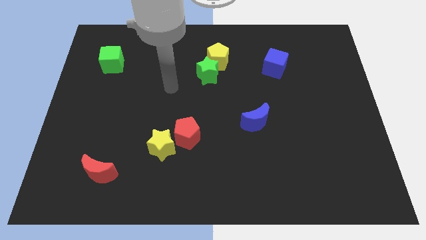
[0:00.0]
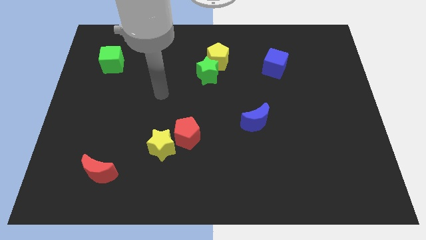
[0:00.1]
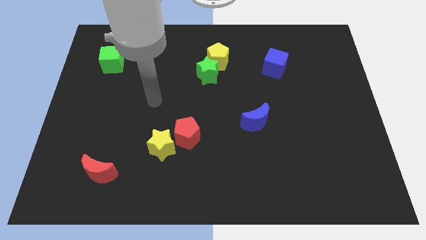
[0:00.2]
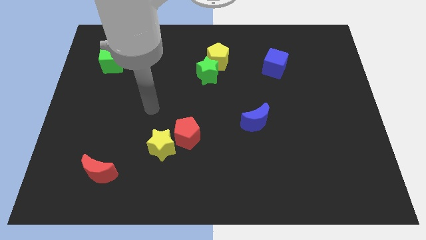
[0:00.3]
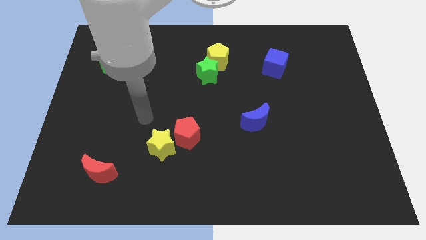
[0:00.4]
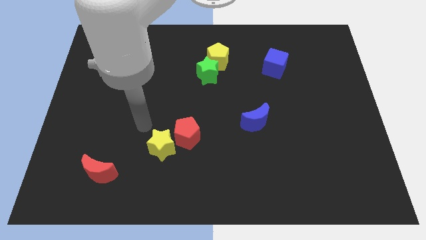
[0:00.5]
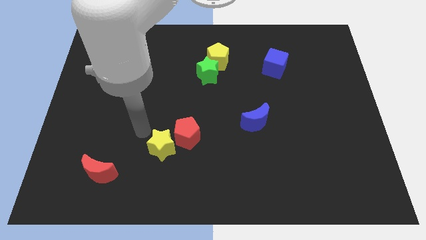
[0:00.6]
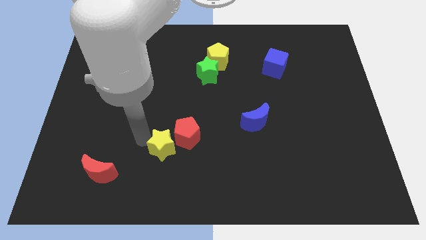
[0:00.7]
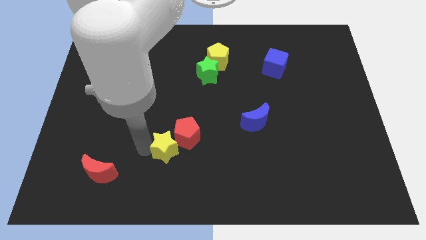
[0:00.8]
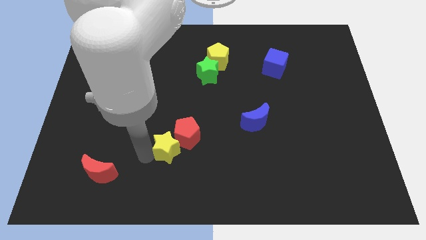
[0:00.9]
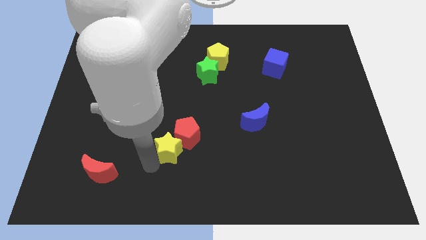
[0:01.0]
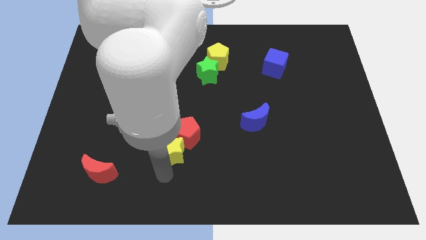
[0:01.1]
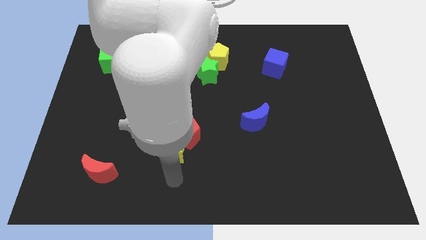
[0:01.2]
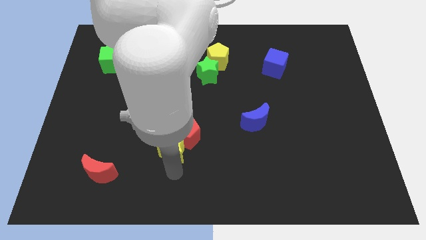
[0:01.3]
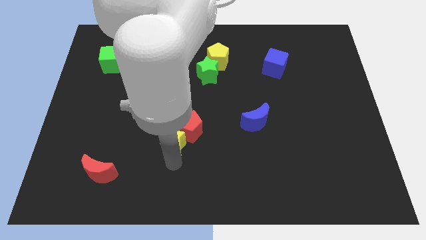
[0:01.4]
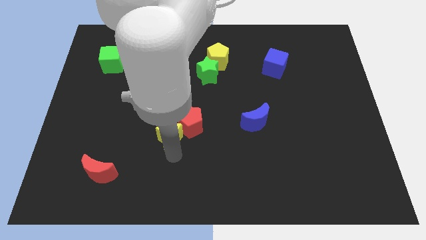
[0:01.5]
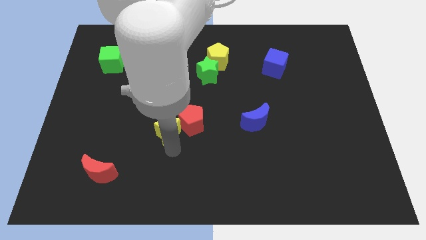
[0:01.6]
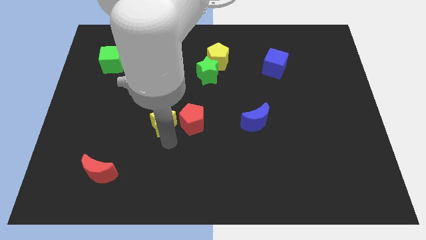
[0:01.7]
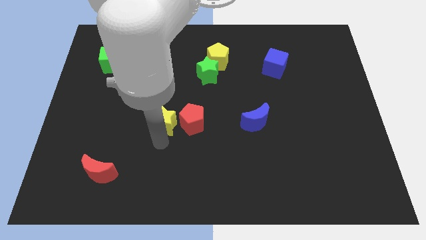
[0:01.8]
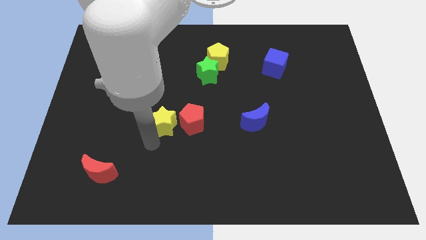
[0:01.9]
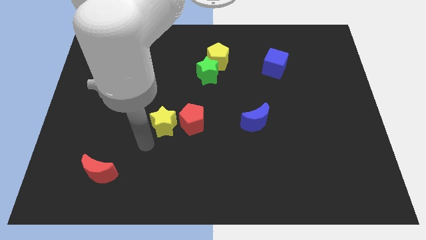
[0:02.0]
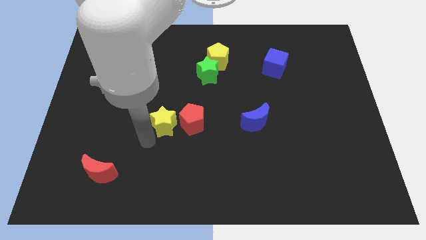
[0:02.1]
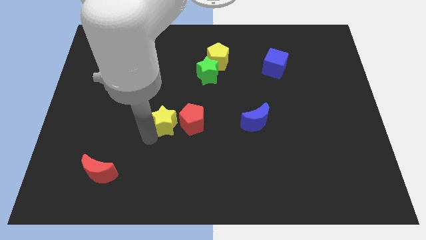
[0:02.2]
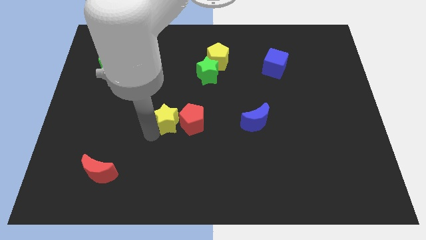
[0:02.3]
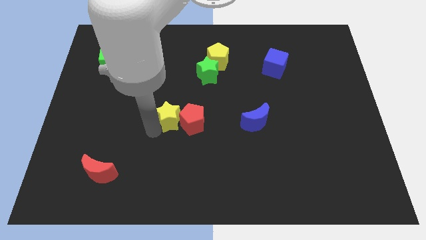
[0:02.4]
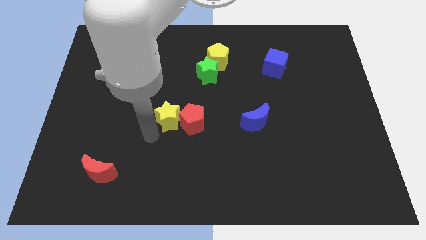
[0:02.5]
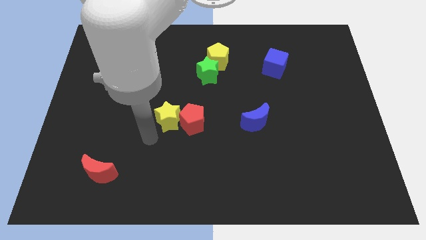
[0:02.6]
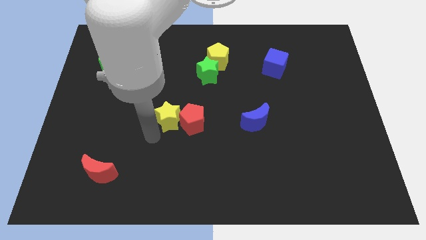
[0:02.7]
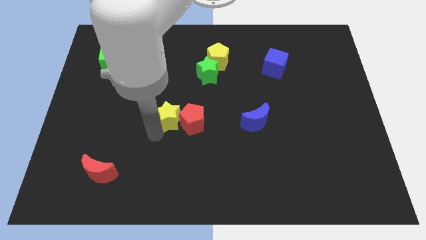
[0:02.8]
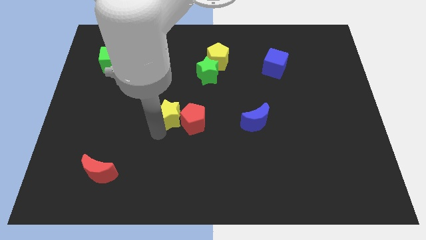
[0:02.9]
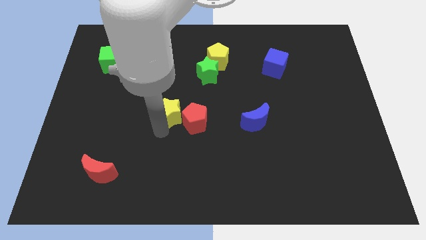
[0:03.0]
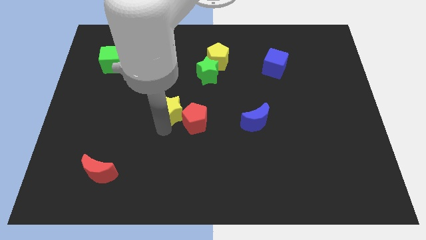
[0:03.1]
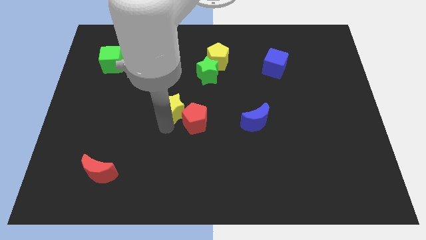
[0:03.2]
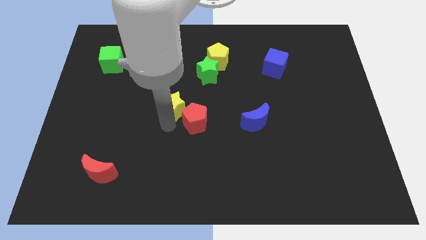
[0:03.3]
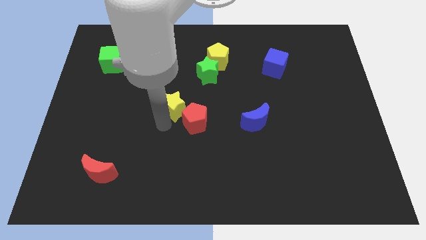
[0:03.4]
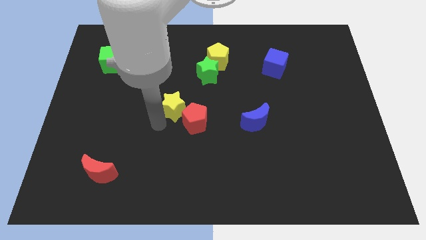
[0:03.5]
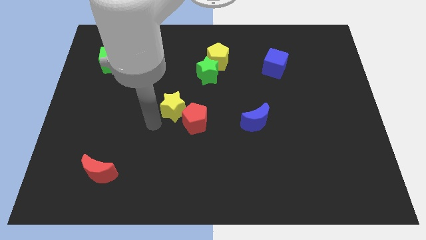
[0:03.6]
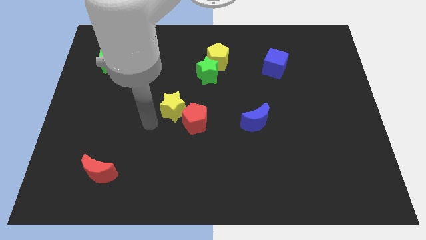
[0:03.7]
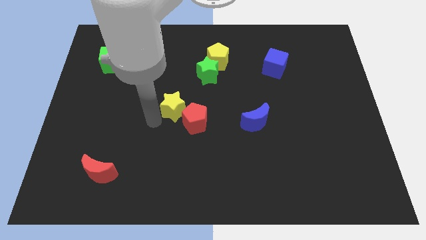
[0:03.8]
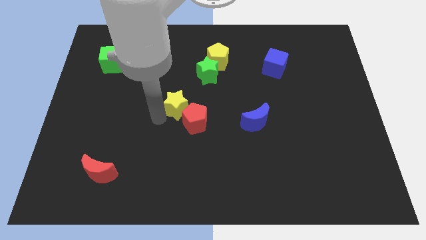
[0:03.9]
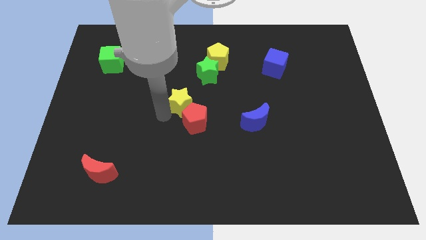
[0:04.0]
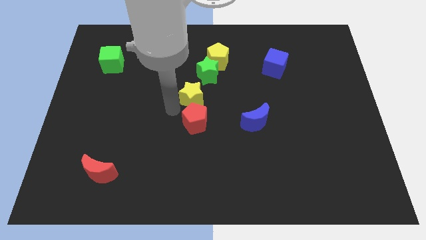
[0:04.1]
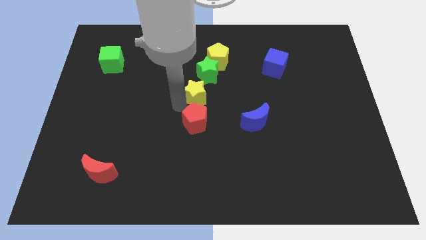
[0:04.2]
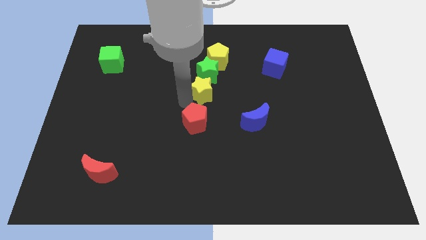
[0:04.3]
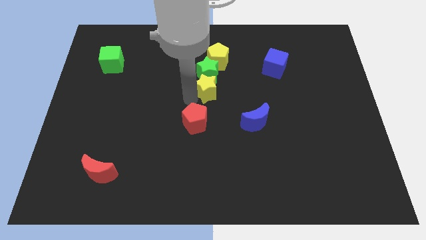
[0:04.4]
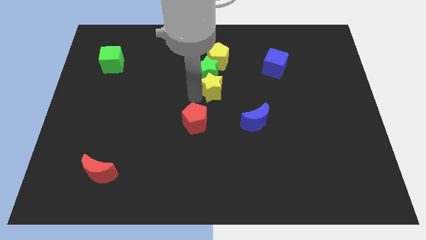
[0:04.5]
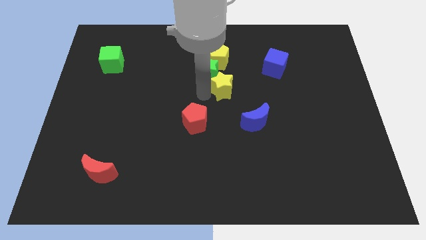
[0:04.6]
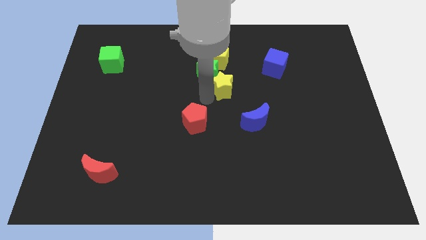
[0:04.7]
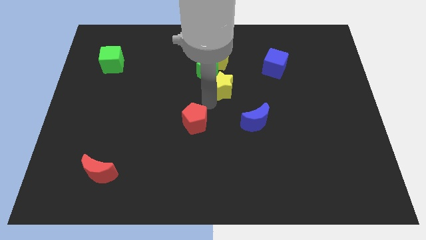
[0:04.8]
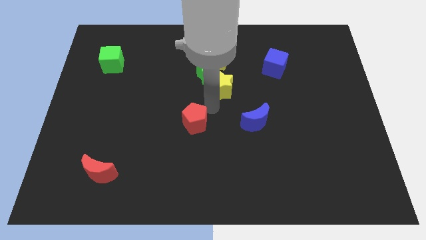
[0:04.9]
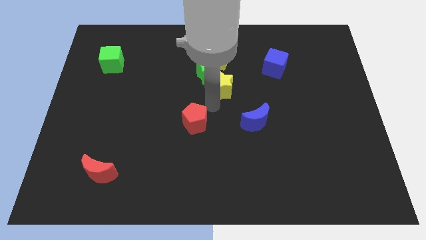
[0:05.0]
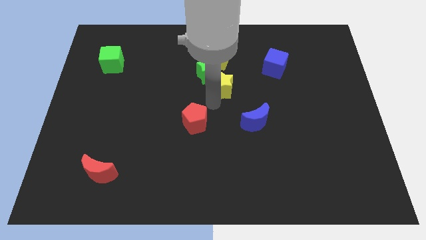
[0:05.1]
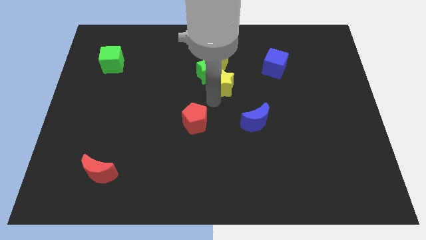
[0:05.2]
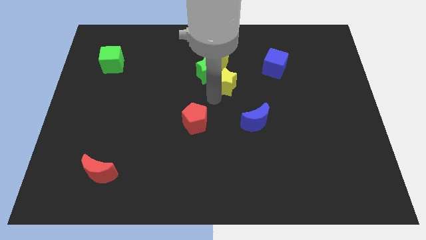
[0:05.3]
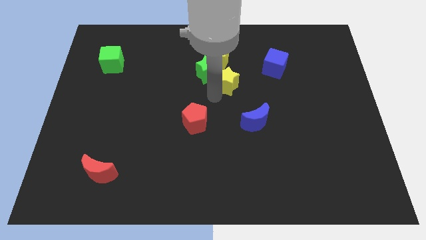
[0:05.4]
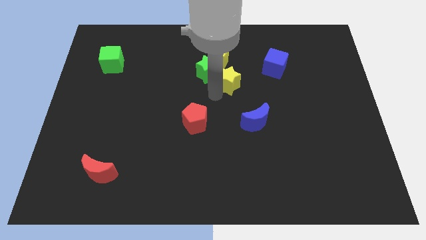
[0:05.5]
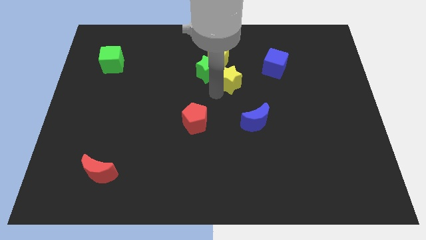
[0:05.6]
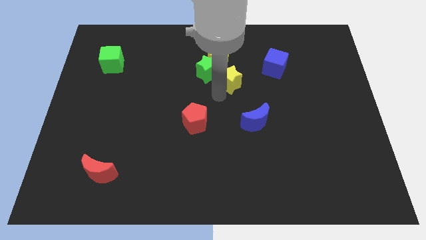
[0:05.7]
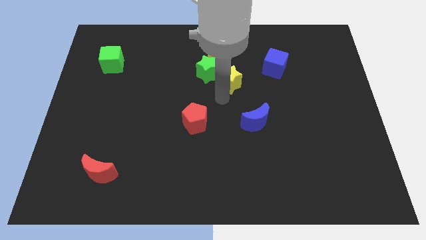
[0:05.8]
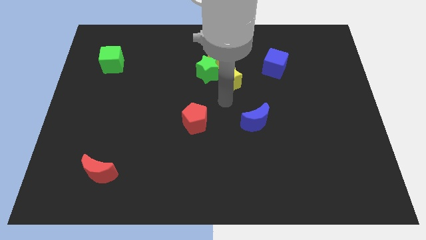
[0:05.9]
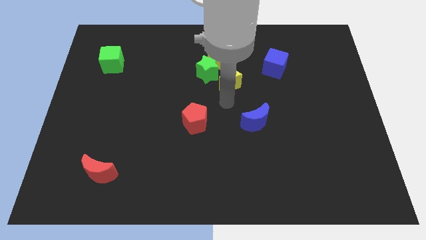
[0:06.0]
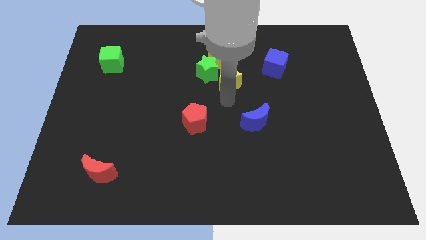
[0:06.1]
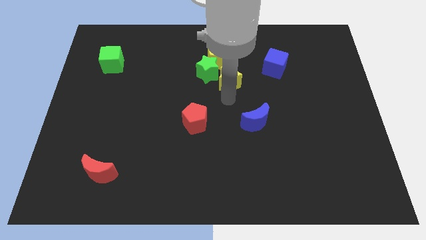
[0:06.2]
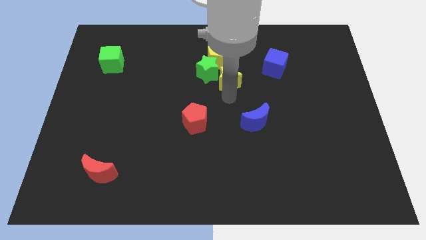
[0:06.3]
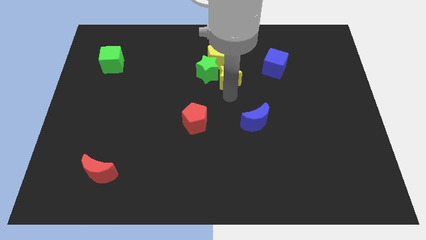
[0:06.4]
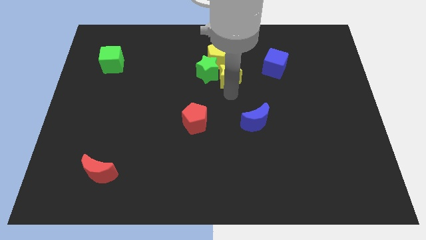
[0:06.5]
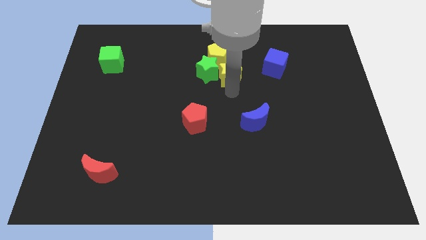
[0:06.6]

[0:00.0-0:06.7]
put the yellow star to the top right side of the green star

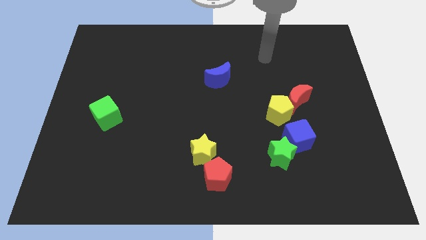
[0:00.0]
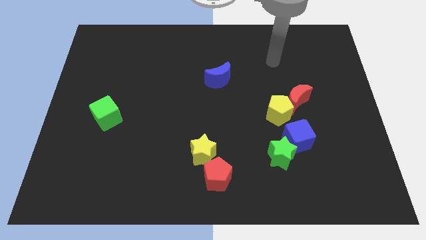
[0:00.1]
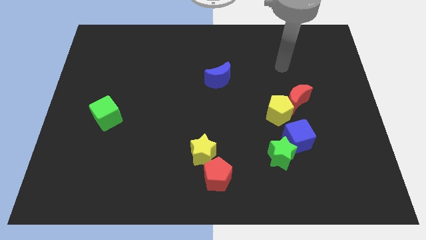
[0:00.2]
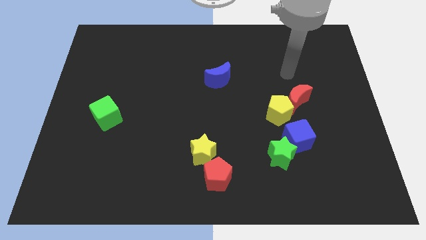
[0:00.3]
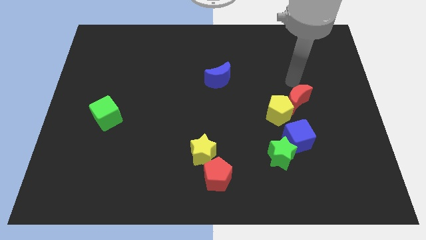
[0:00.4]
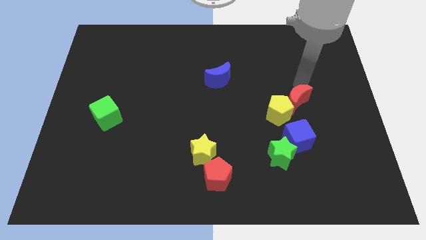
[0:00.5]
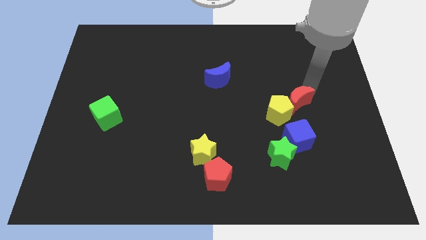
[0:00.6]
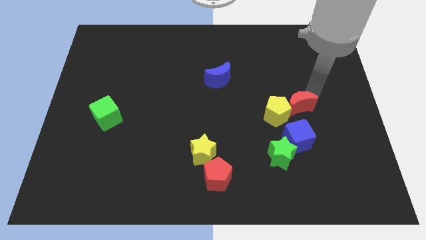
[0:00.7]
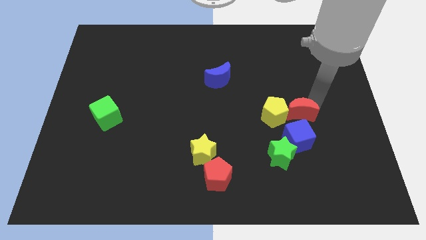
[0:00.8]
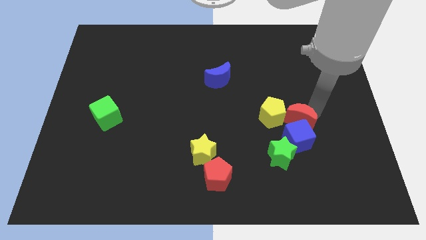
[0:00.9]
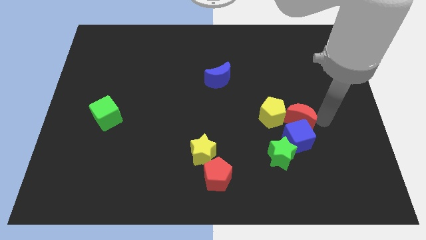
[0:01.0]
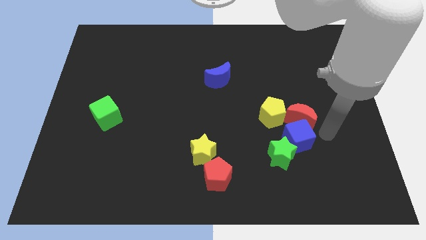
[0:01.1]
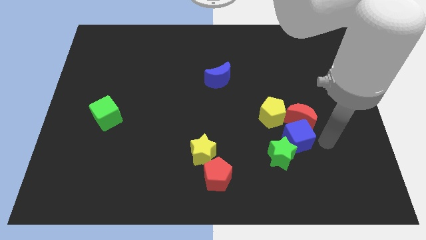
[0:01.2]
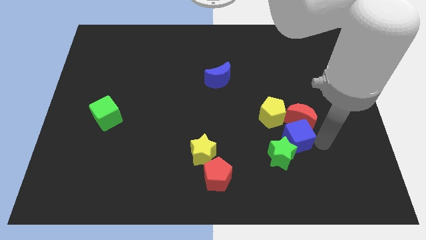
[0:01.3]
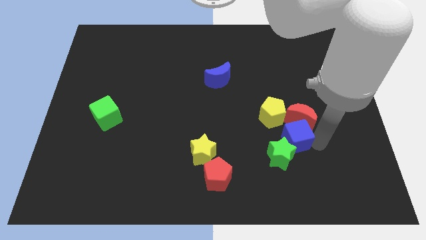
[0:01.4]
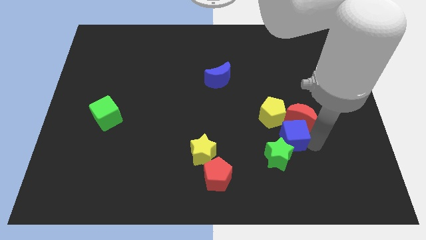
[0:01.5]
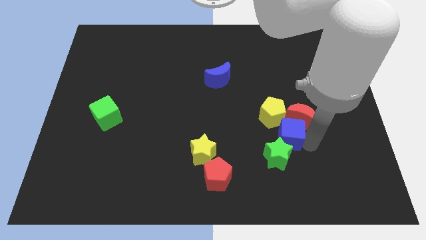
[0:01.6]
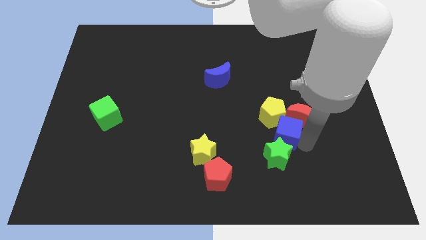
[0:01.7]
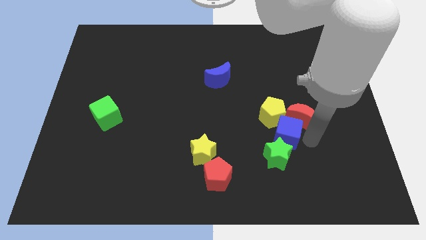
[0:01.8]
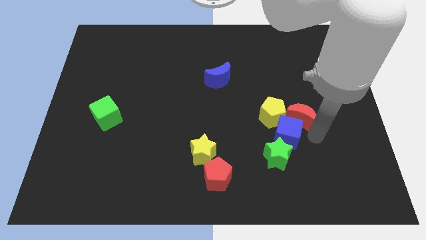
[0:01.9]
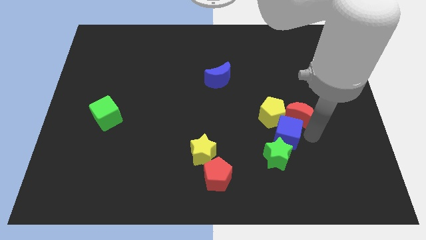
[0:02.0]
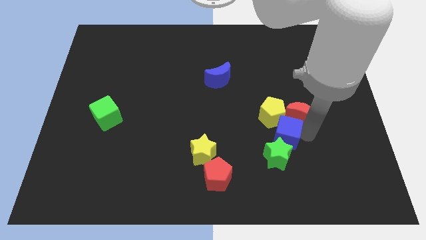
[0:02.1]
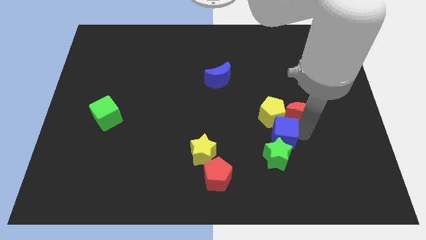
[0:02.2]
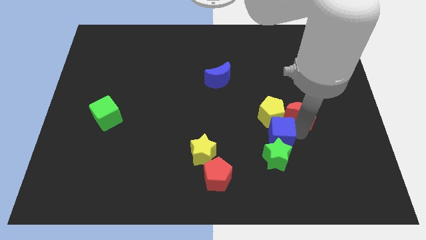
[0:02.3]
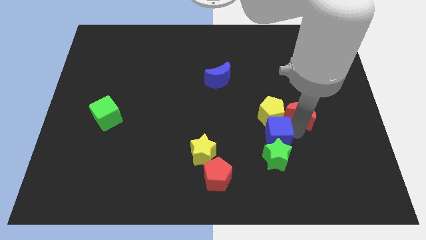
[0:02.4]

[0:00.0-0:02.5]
move the blue cube to the bottom left of the yellow pentagon
